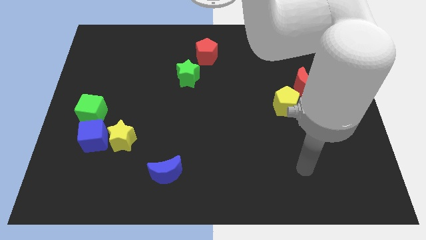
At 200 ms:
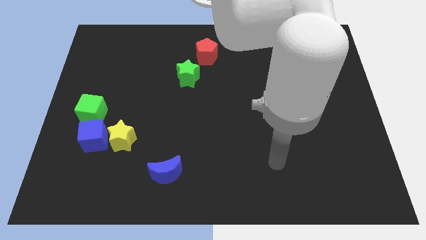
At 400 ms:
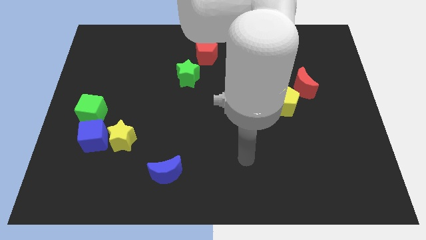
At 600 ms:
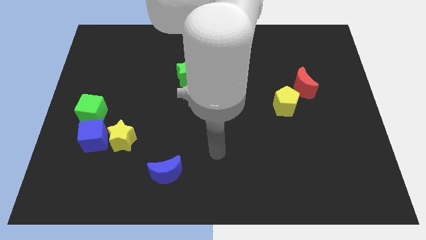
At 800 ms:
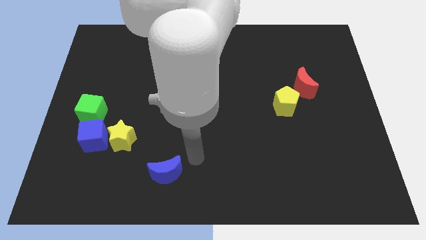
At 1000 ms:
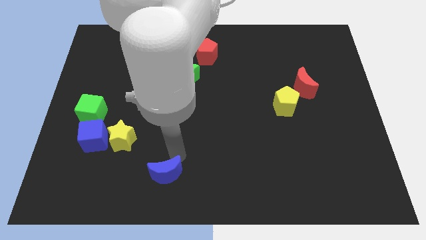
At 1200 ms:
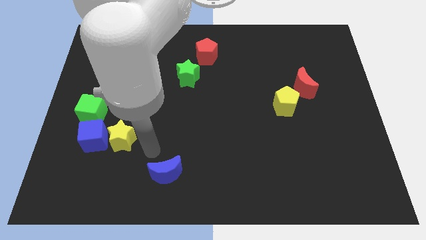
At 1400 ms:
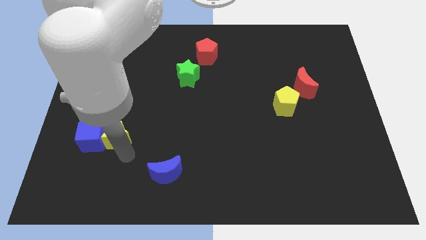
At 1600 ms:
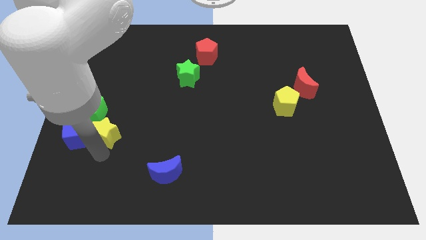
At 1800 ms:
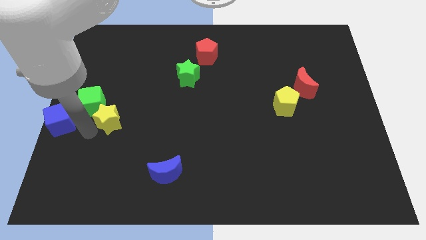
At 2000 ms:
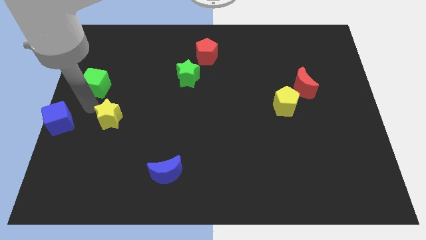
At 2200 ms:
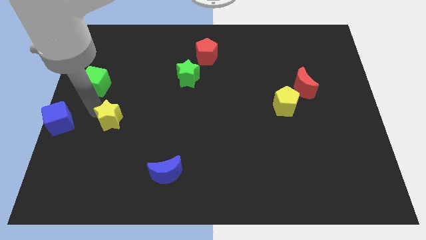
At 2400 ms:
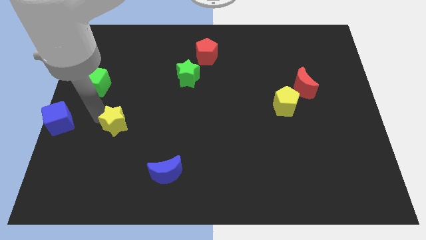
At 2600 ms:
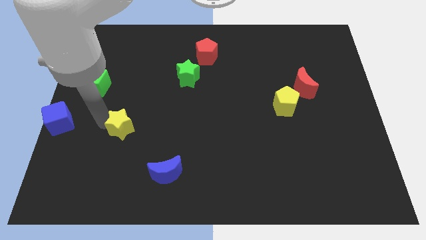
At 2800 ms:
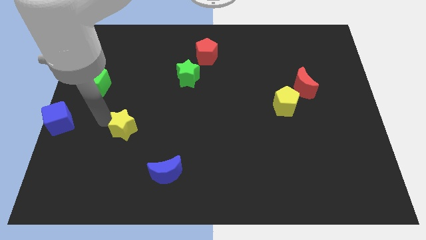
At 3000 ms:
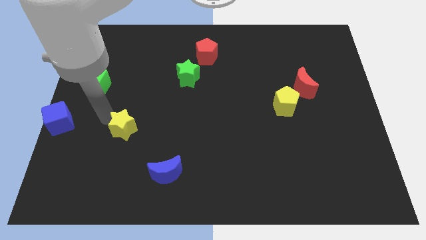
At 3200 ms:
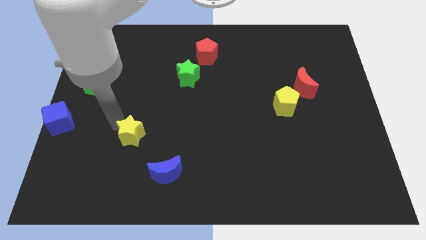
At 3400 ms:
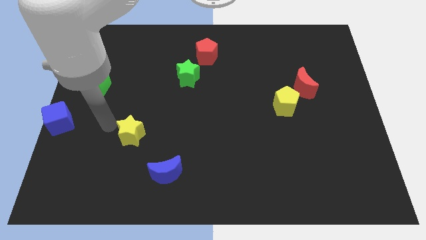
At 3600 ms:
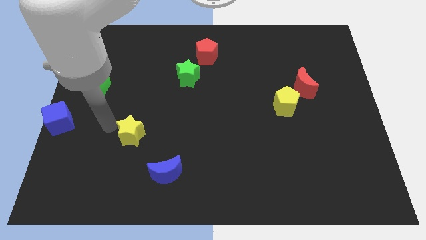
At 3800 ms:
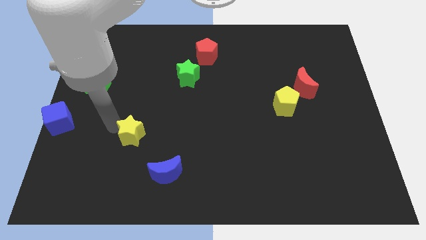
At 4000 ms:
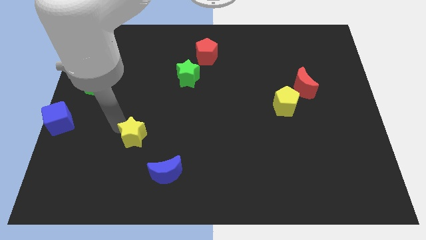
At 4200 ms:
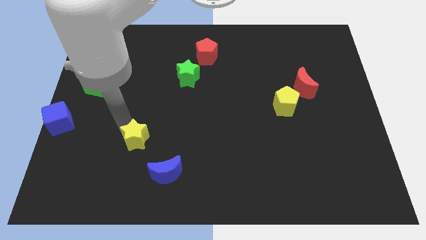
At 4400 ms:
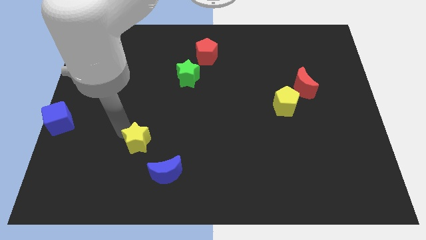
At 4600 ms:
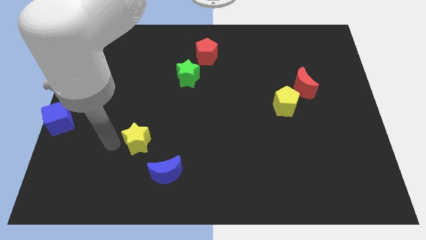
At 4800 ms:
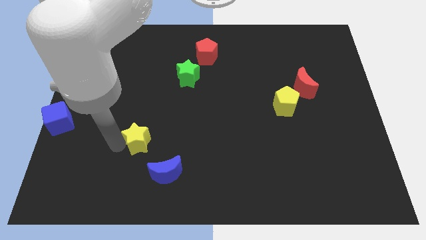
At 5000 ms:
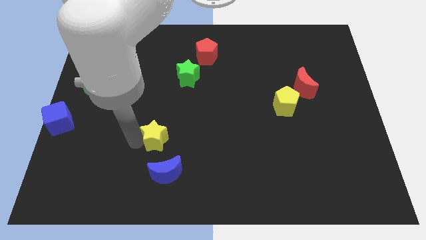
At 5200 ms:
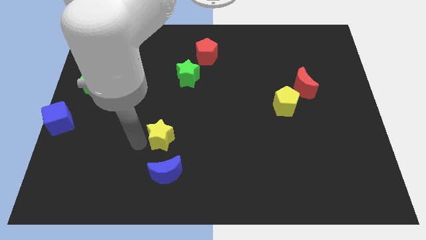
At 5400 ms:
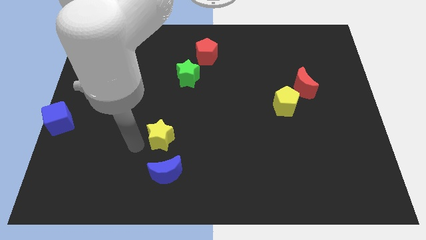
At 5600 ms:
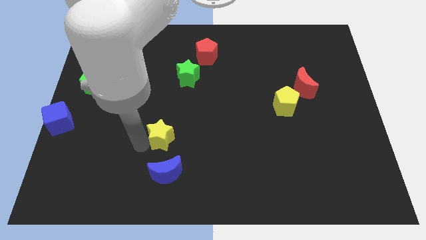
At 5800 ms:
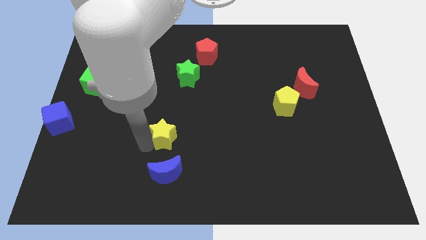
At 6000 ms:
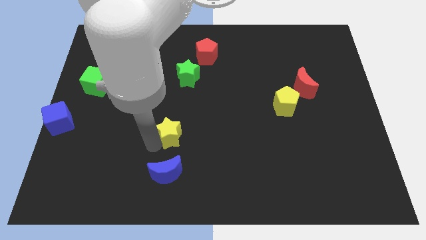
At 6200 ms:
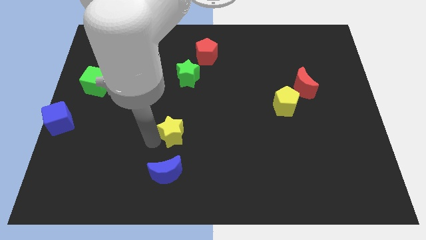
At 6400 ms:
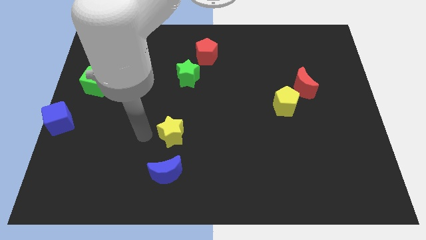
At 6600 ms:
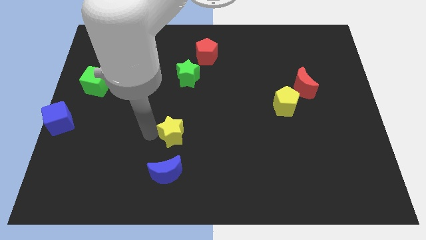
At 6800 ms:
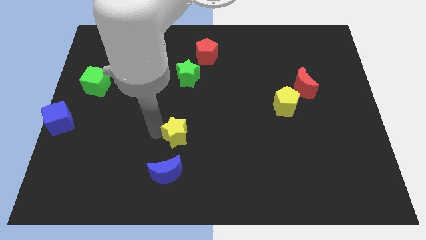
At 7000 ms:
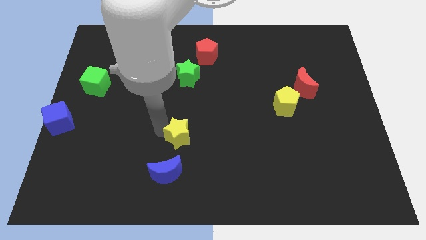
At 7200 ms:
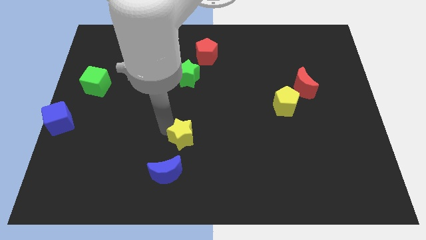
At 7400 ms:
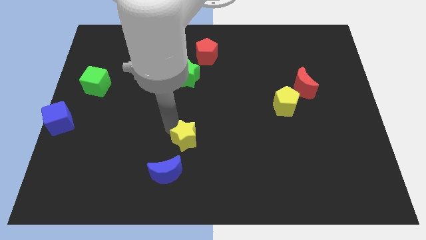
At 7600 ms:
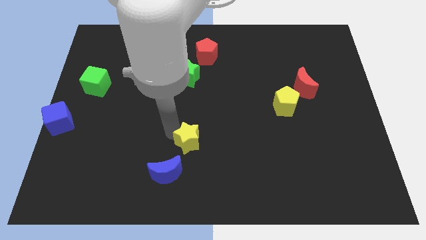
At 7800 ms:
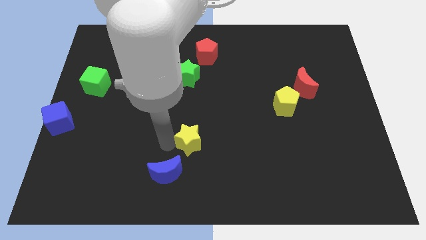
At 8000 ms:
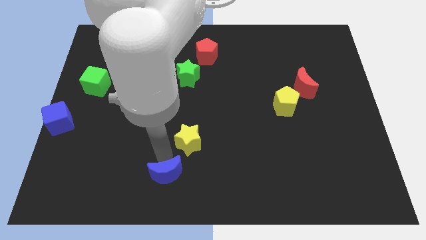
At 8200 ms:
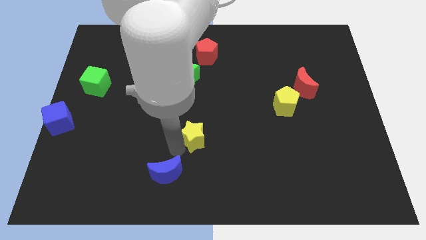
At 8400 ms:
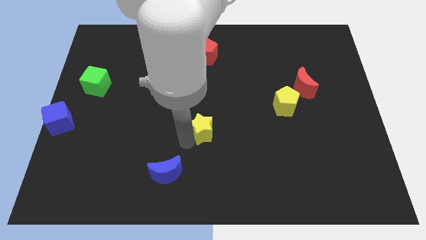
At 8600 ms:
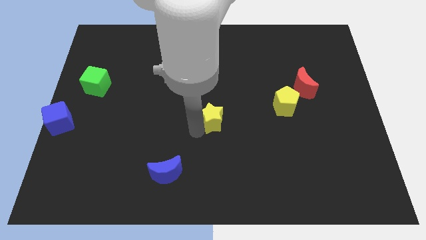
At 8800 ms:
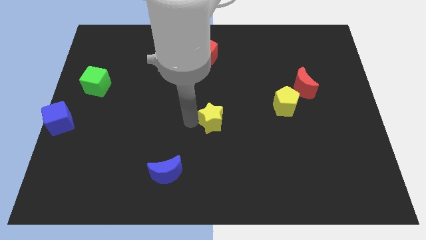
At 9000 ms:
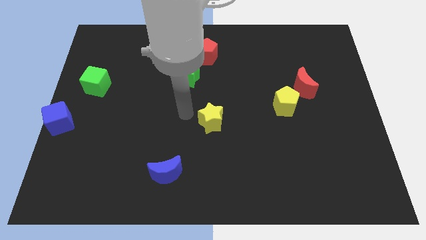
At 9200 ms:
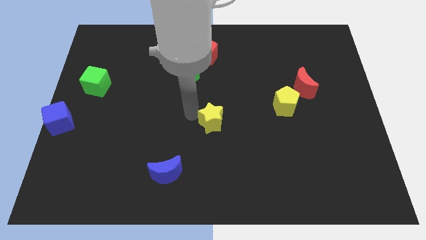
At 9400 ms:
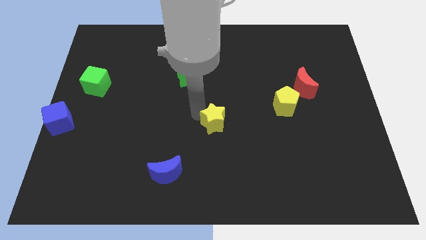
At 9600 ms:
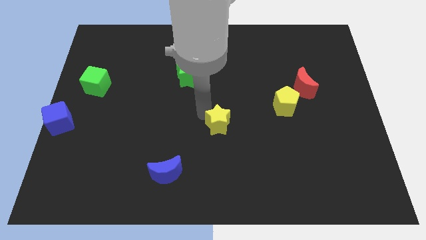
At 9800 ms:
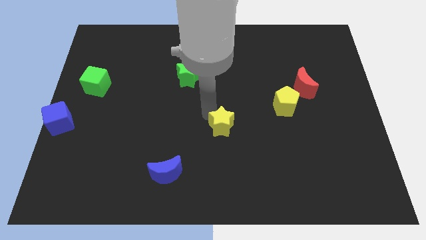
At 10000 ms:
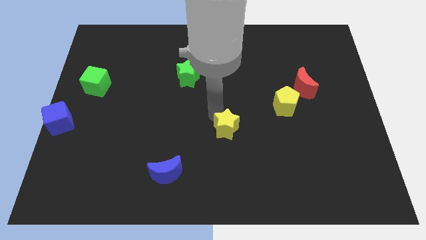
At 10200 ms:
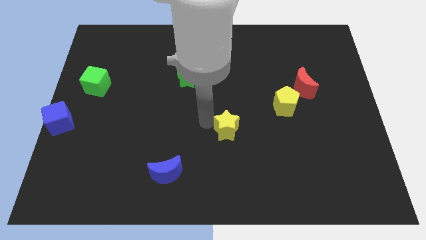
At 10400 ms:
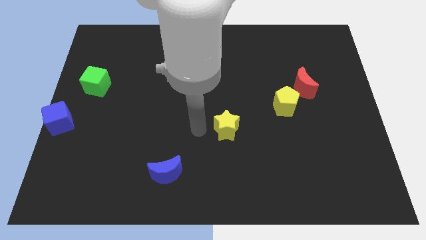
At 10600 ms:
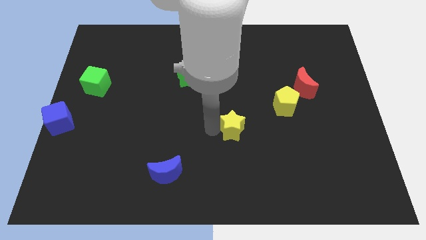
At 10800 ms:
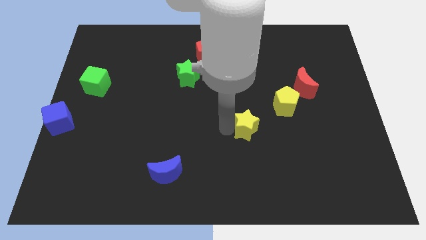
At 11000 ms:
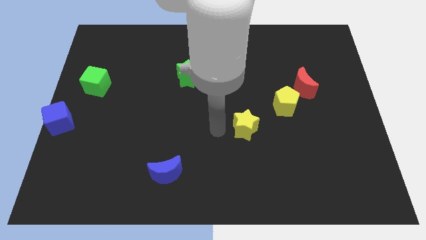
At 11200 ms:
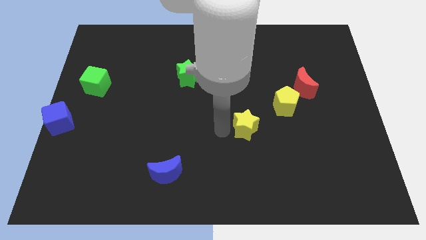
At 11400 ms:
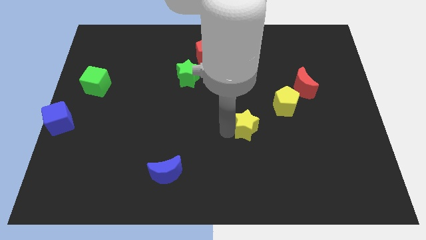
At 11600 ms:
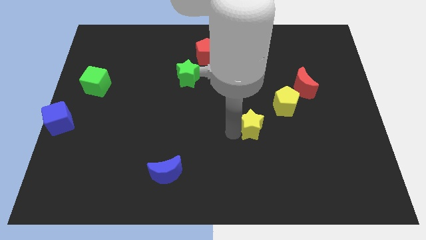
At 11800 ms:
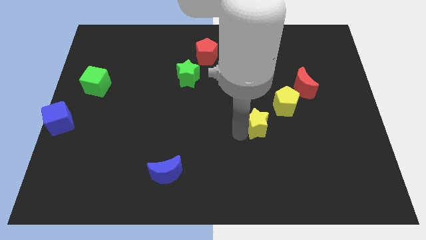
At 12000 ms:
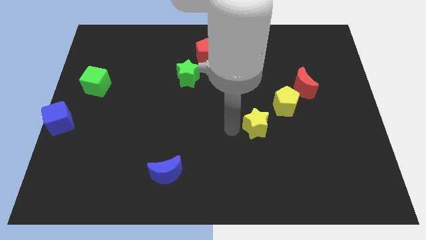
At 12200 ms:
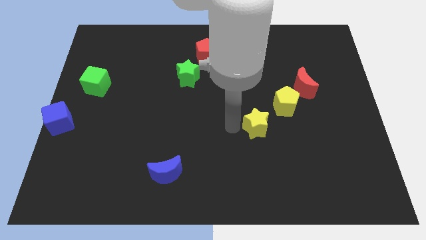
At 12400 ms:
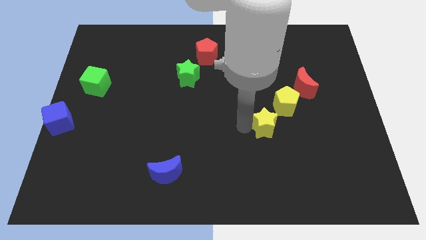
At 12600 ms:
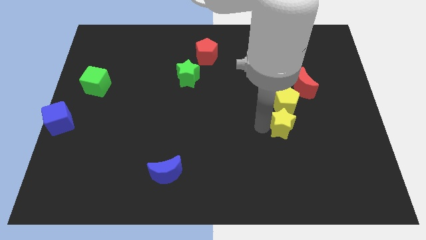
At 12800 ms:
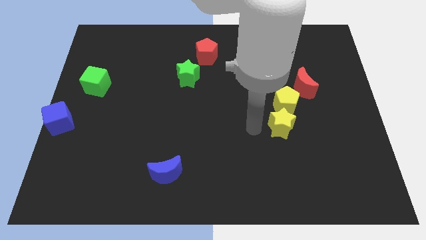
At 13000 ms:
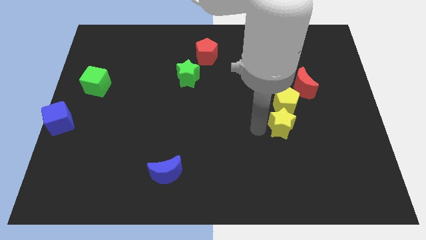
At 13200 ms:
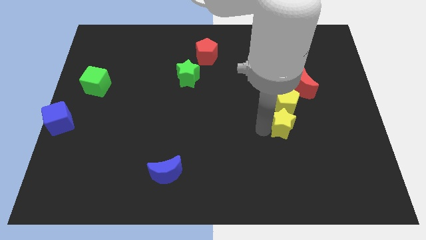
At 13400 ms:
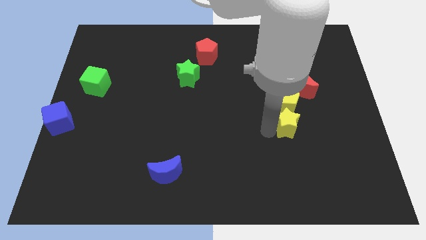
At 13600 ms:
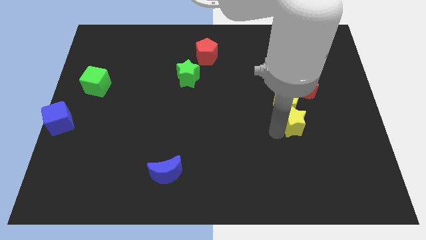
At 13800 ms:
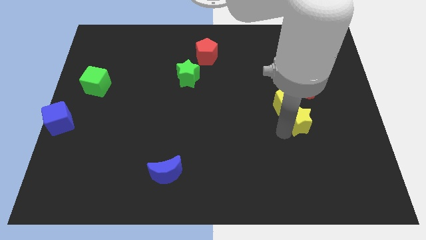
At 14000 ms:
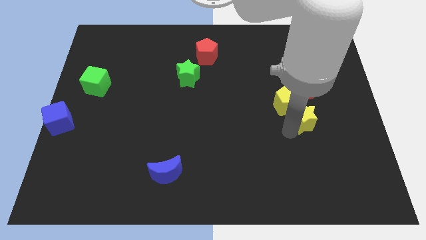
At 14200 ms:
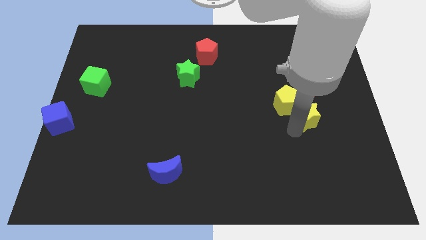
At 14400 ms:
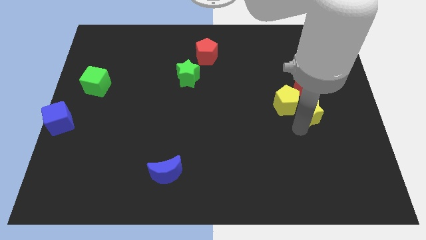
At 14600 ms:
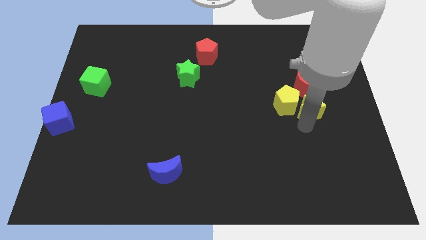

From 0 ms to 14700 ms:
push the yellow star to the bottom right of the red moon
